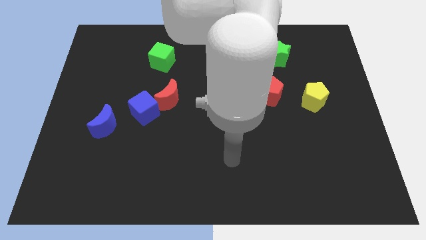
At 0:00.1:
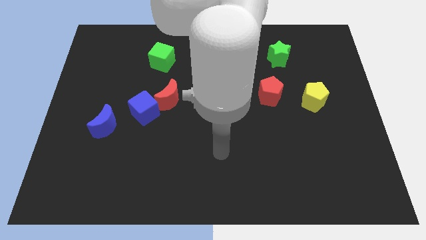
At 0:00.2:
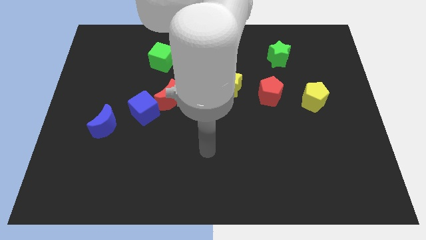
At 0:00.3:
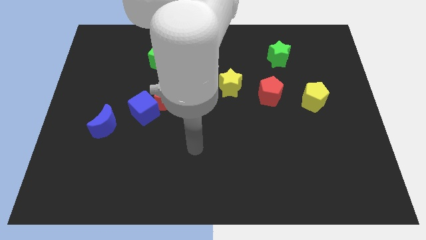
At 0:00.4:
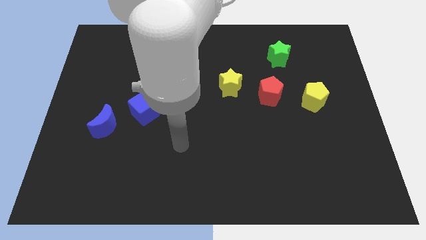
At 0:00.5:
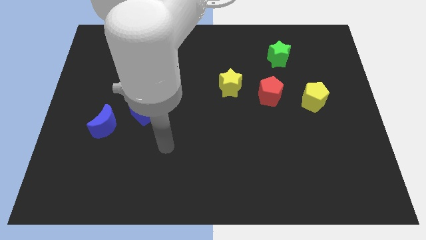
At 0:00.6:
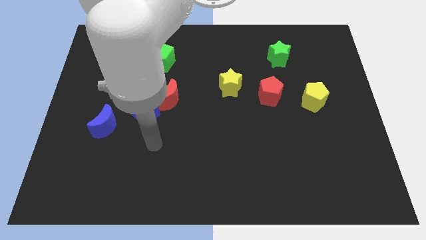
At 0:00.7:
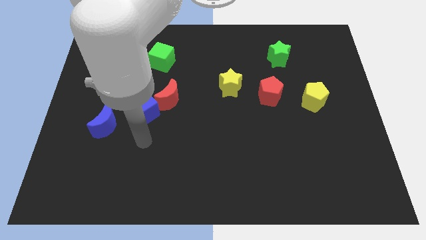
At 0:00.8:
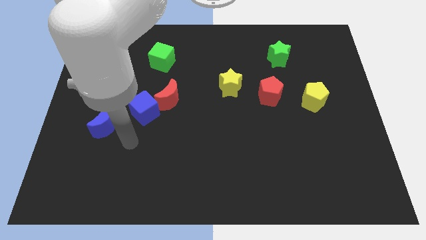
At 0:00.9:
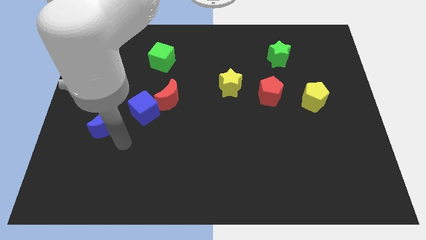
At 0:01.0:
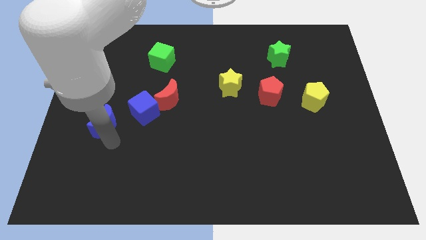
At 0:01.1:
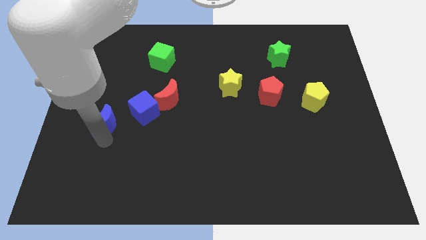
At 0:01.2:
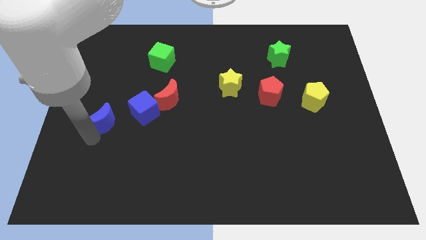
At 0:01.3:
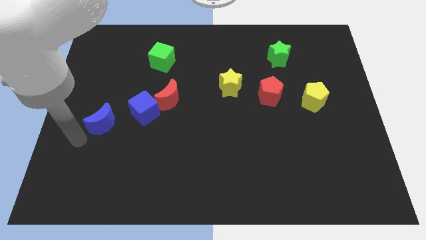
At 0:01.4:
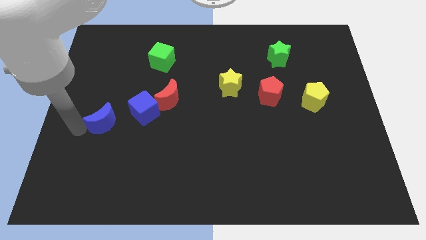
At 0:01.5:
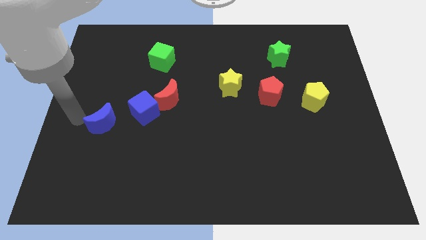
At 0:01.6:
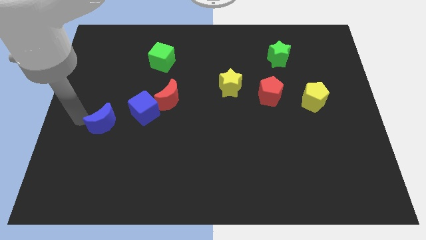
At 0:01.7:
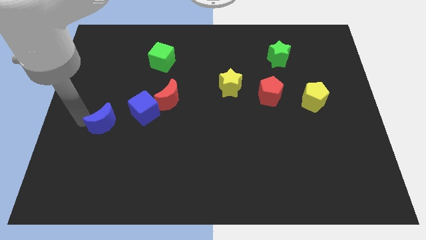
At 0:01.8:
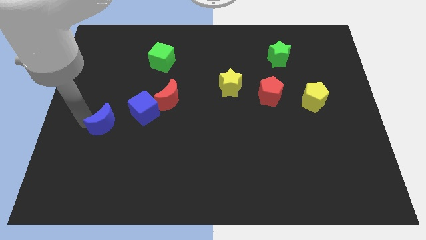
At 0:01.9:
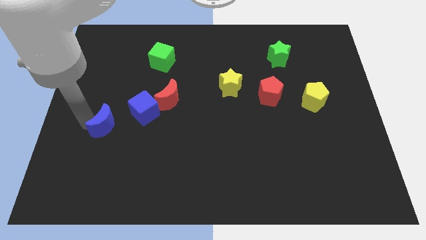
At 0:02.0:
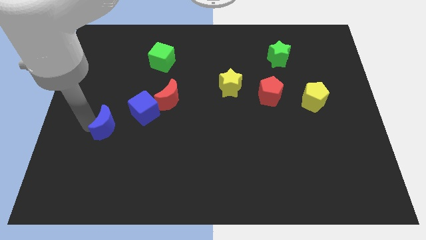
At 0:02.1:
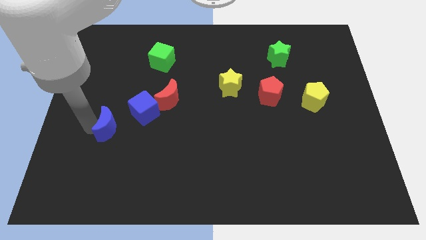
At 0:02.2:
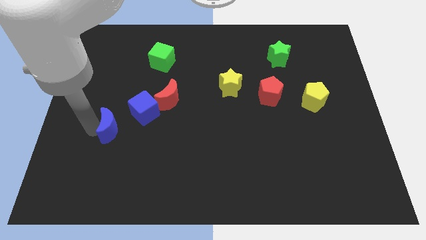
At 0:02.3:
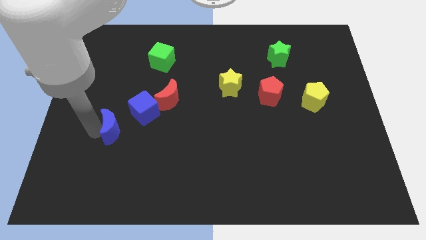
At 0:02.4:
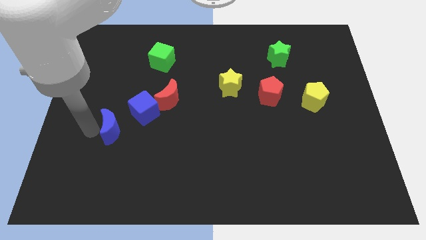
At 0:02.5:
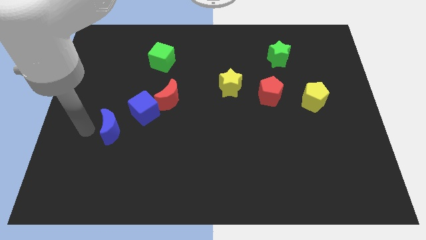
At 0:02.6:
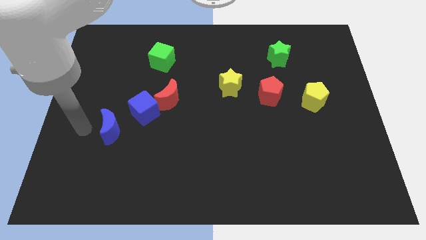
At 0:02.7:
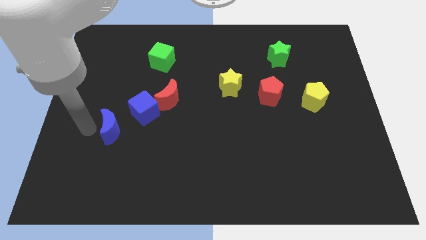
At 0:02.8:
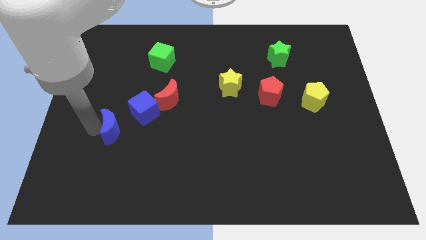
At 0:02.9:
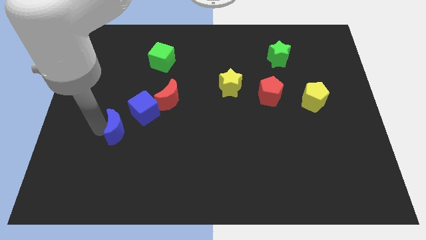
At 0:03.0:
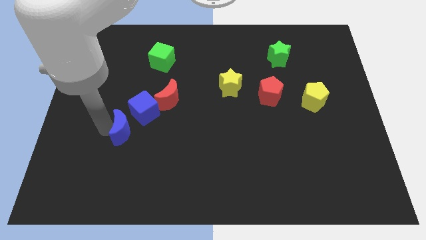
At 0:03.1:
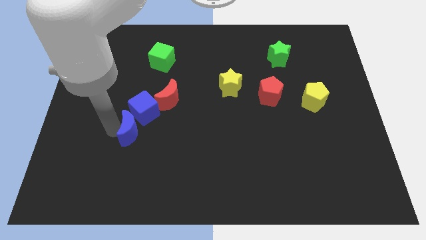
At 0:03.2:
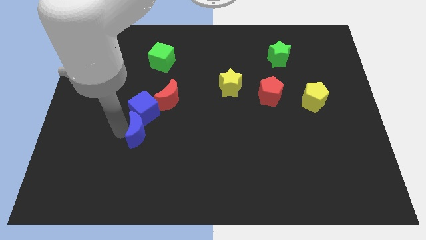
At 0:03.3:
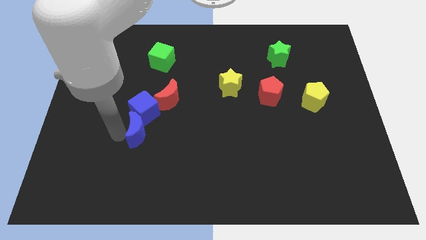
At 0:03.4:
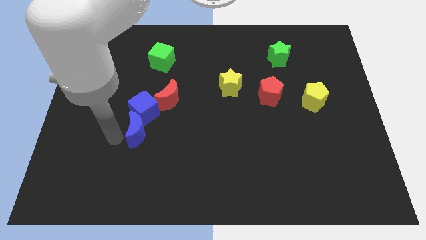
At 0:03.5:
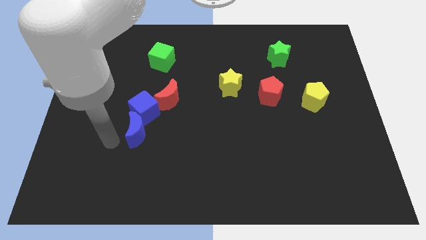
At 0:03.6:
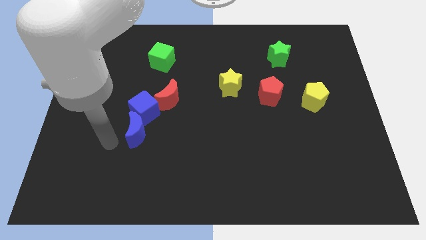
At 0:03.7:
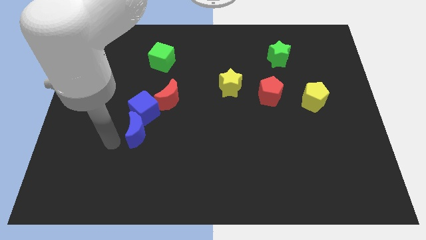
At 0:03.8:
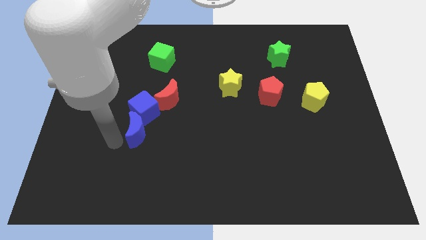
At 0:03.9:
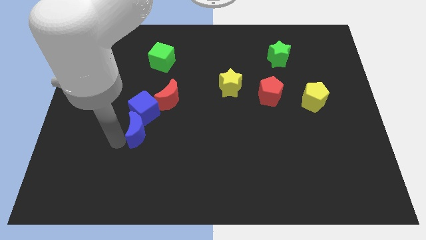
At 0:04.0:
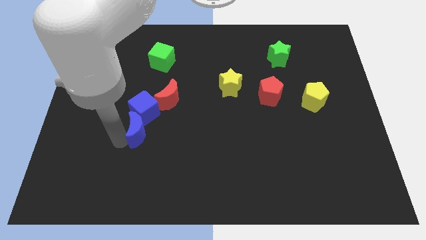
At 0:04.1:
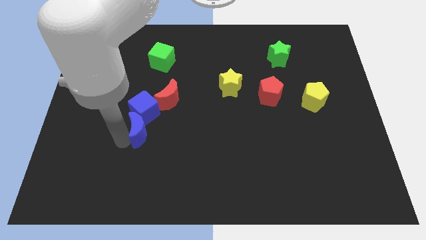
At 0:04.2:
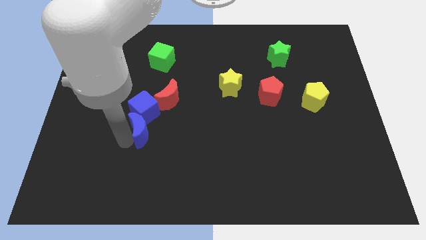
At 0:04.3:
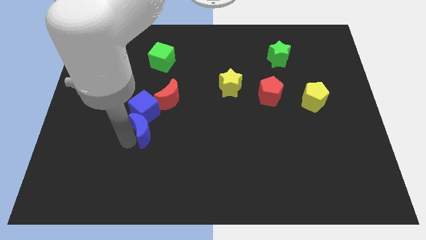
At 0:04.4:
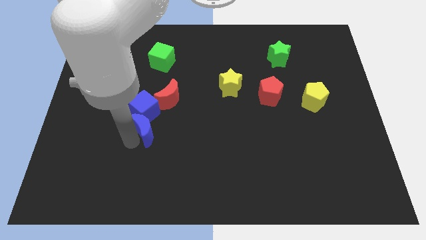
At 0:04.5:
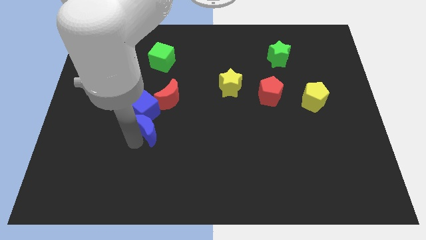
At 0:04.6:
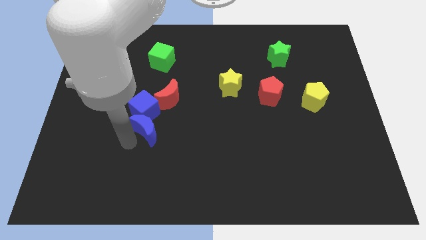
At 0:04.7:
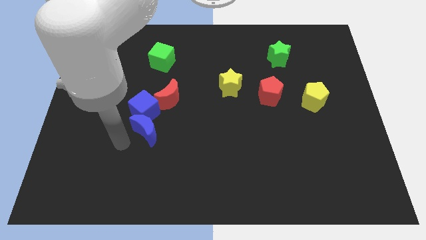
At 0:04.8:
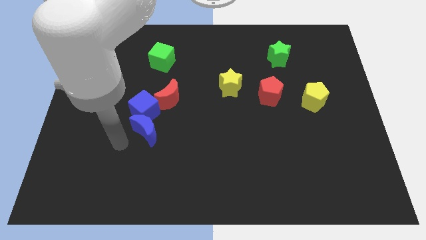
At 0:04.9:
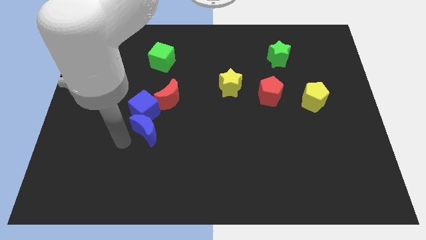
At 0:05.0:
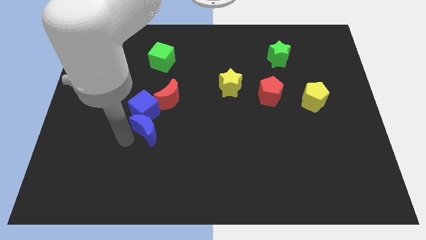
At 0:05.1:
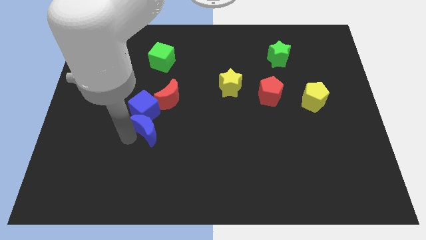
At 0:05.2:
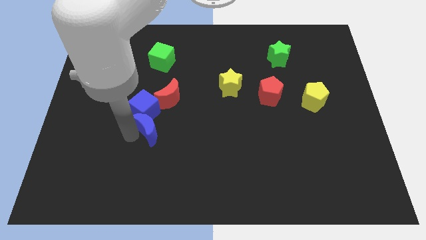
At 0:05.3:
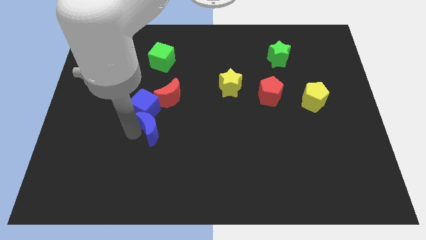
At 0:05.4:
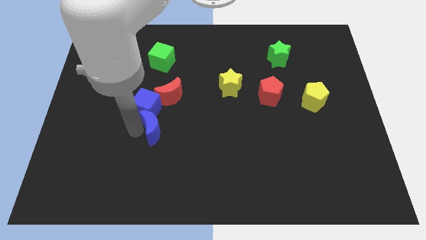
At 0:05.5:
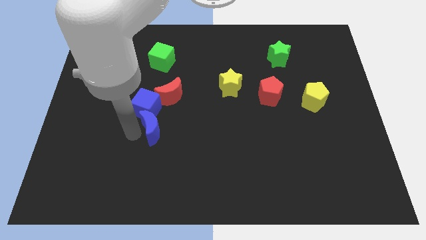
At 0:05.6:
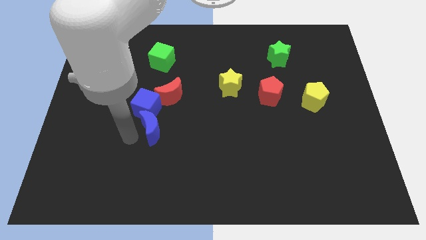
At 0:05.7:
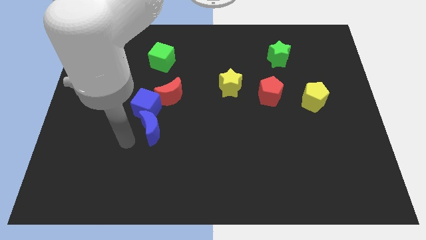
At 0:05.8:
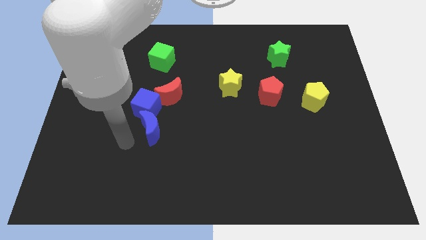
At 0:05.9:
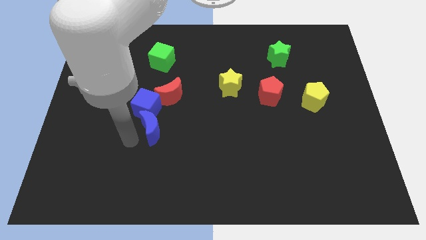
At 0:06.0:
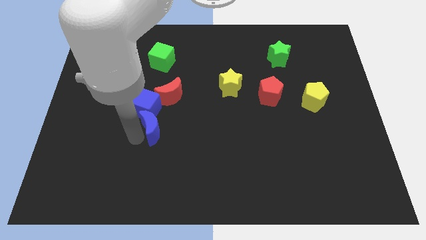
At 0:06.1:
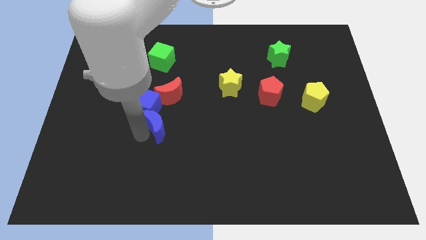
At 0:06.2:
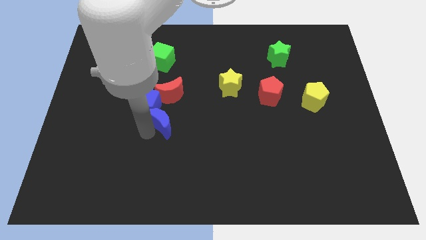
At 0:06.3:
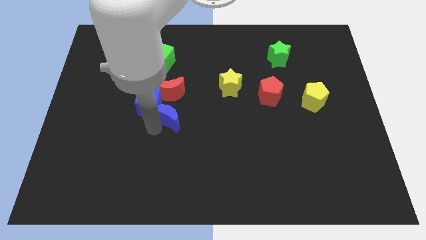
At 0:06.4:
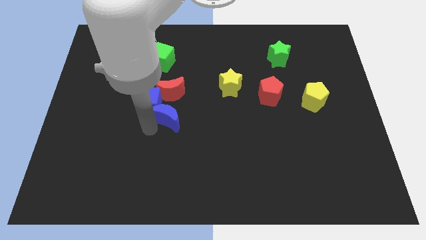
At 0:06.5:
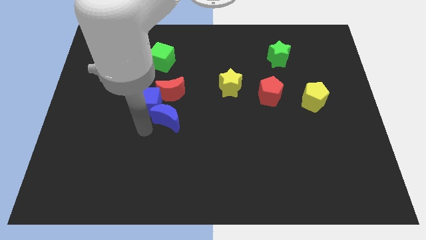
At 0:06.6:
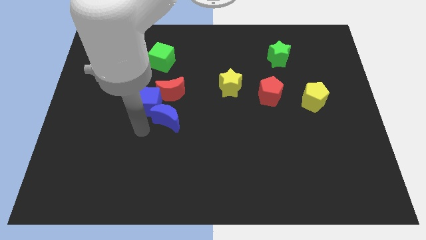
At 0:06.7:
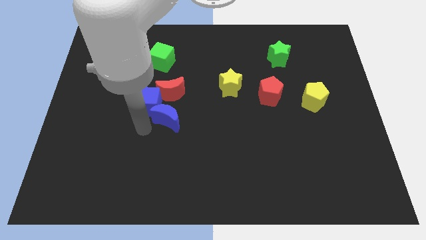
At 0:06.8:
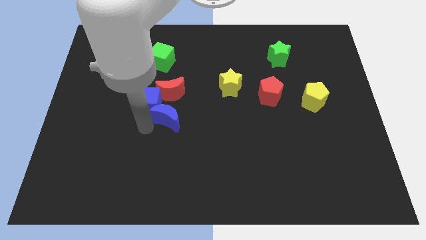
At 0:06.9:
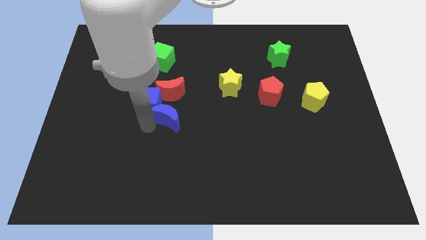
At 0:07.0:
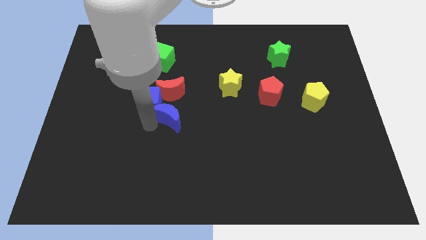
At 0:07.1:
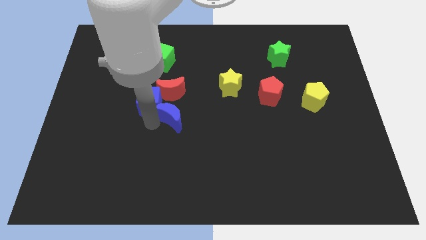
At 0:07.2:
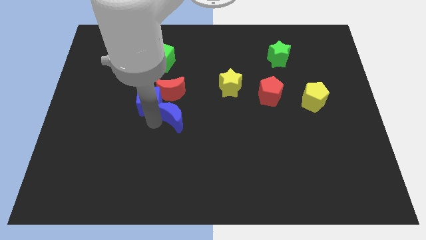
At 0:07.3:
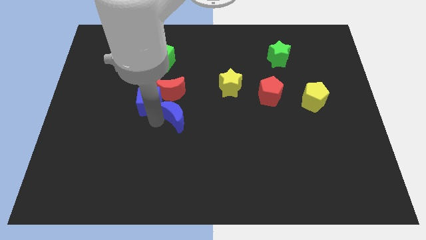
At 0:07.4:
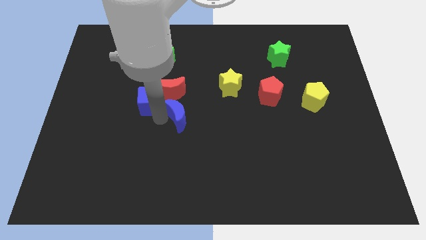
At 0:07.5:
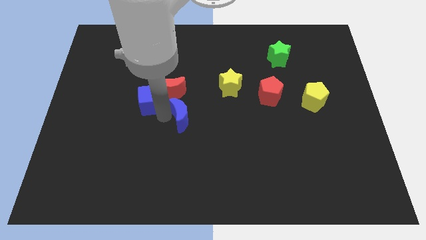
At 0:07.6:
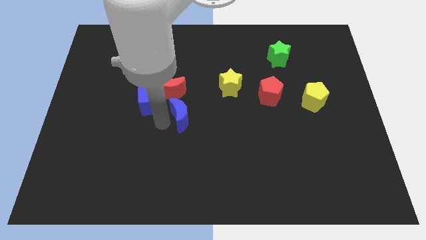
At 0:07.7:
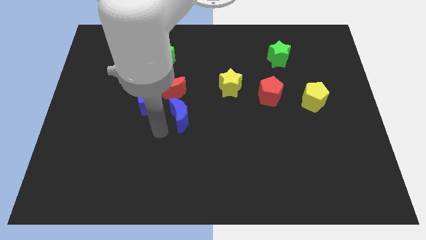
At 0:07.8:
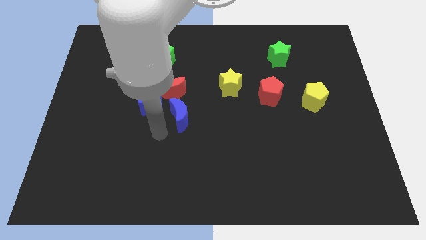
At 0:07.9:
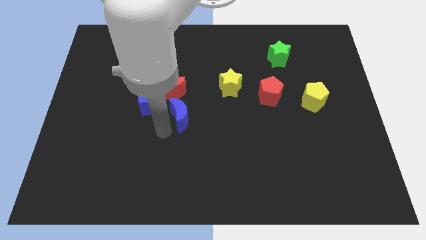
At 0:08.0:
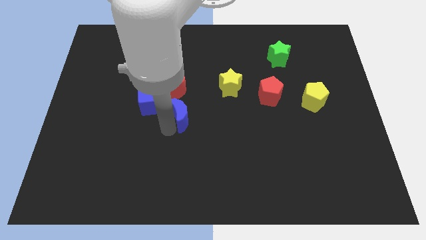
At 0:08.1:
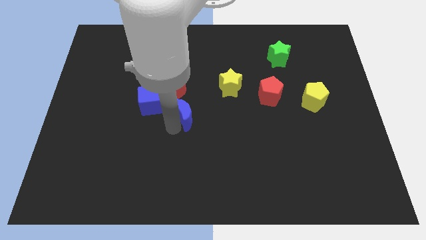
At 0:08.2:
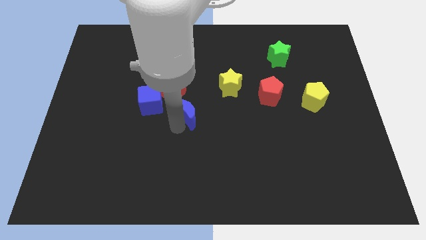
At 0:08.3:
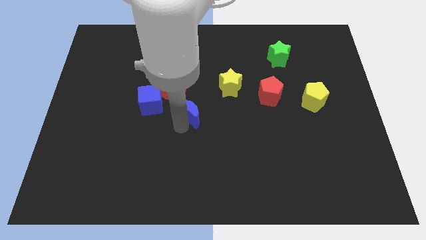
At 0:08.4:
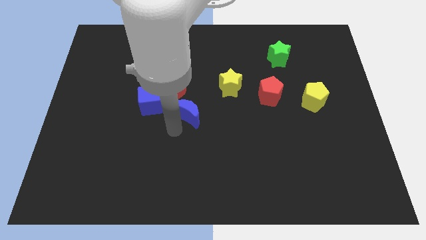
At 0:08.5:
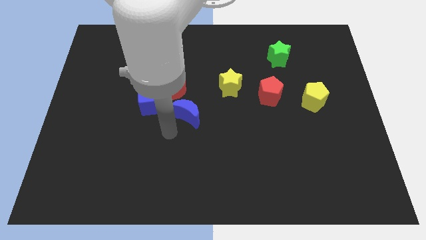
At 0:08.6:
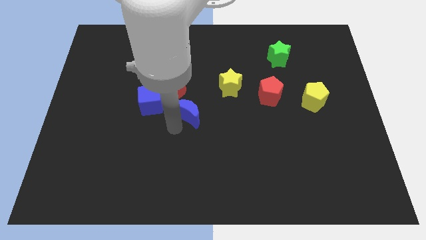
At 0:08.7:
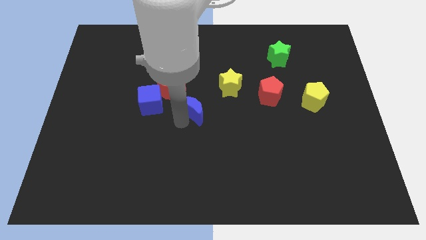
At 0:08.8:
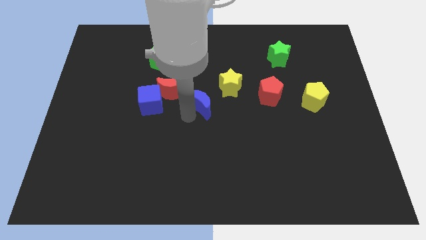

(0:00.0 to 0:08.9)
slide the blue moon right of the red moon
